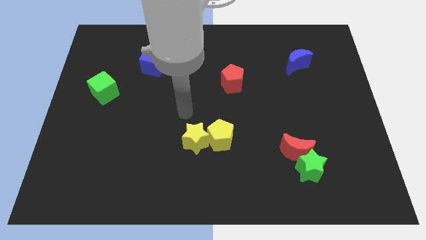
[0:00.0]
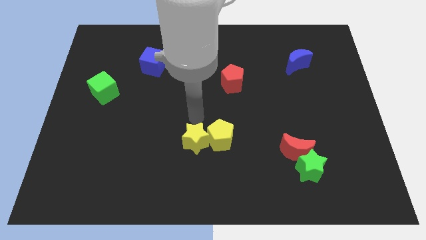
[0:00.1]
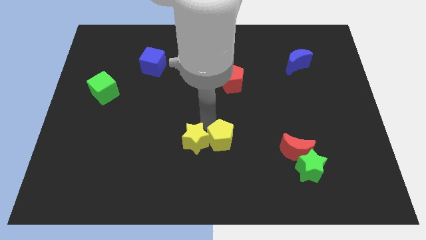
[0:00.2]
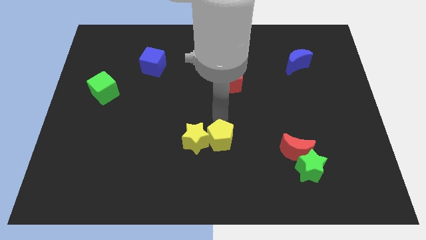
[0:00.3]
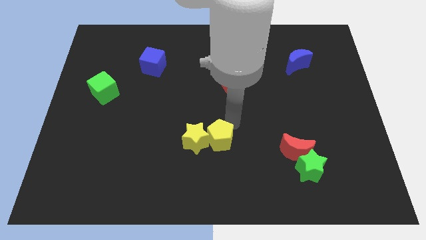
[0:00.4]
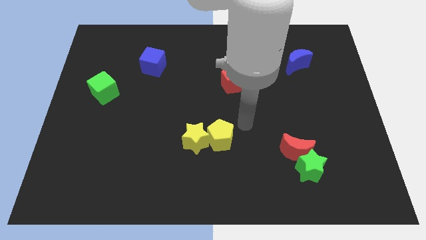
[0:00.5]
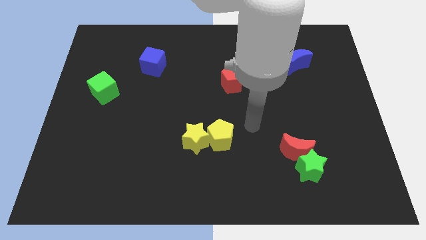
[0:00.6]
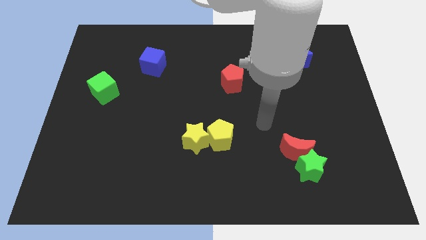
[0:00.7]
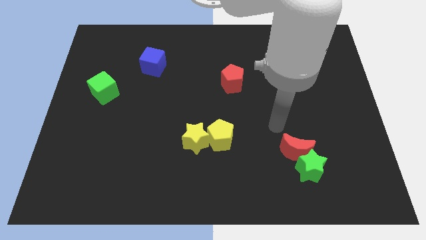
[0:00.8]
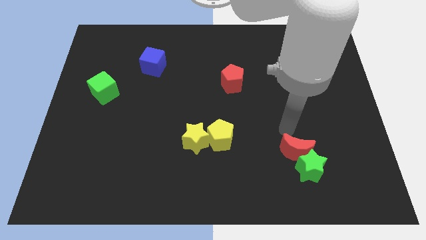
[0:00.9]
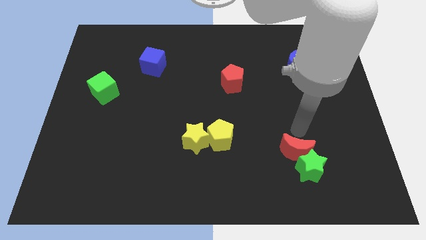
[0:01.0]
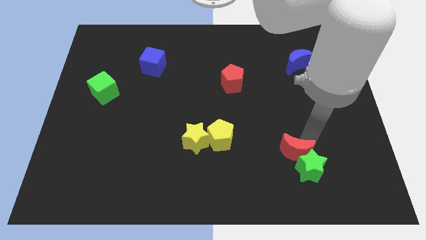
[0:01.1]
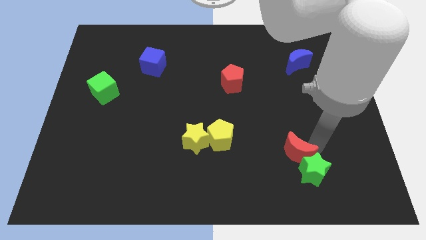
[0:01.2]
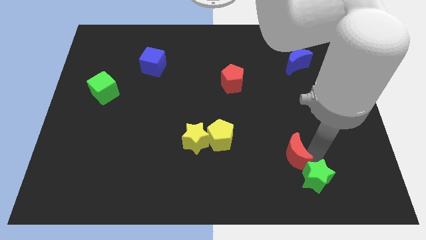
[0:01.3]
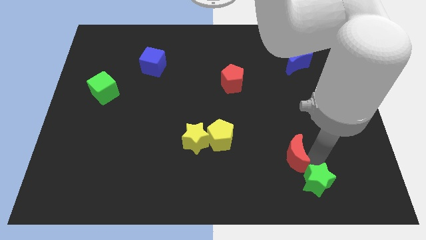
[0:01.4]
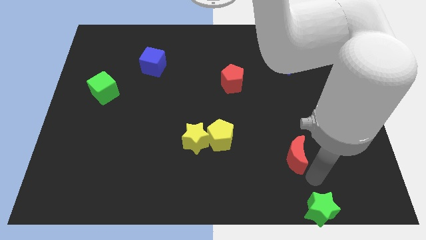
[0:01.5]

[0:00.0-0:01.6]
pull the red moon apart from the green star

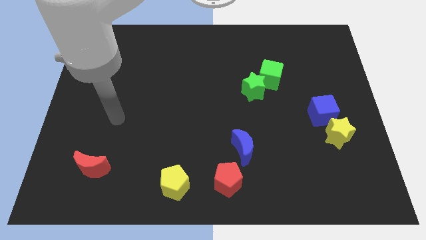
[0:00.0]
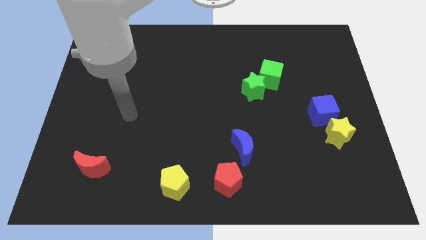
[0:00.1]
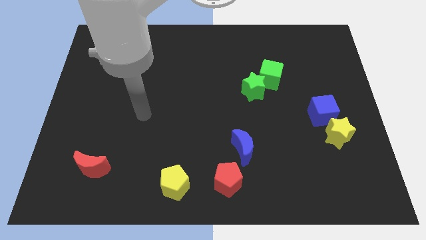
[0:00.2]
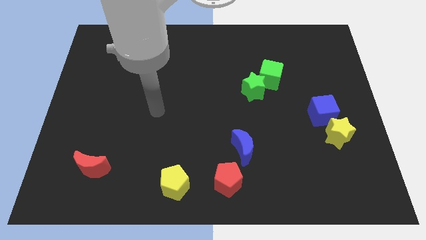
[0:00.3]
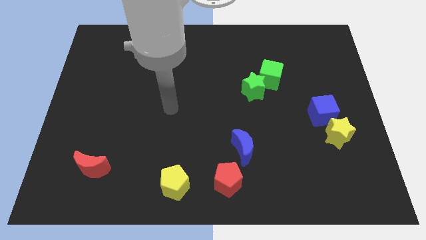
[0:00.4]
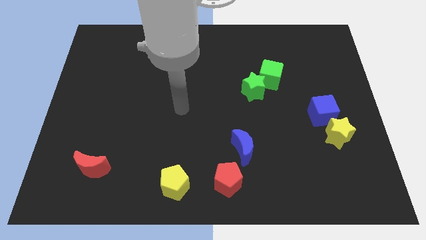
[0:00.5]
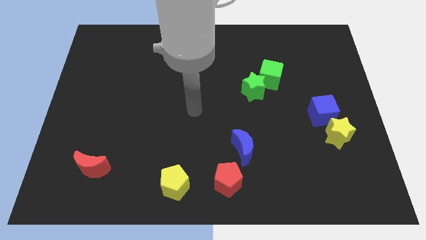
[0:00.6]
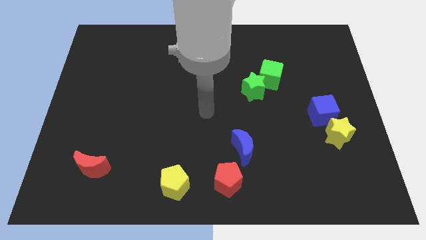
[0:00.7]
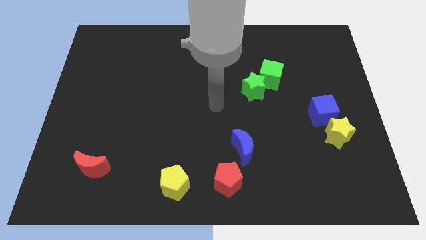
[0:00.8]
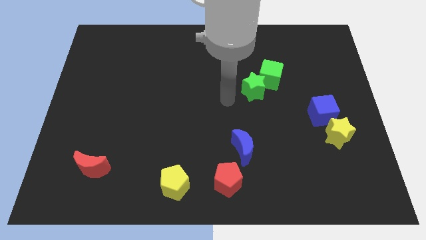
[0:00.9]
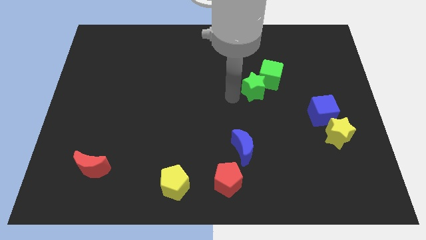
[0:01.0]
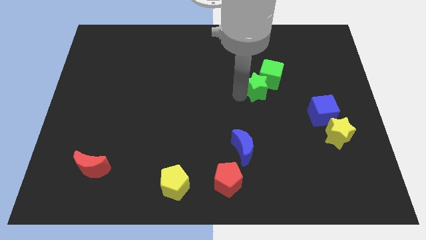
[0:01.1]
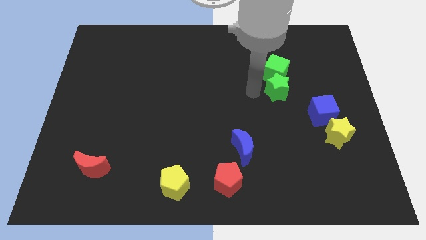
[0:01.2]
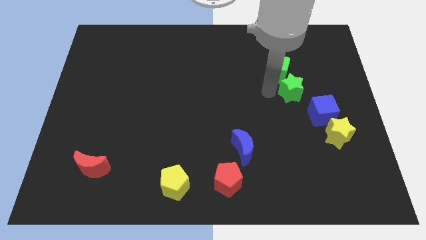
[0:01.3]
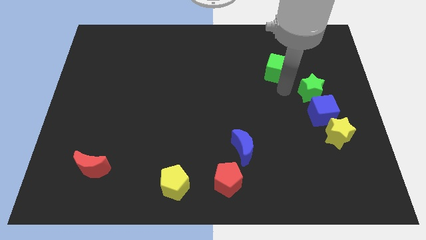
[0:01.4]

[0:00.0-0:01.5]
pull the green cube apart from the green star

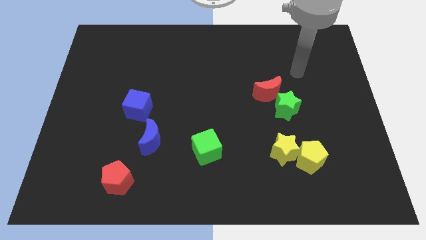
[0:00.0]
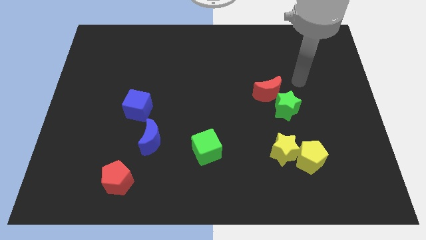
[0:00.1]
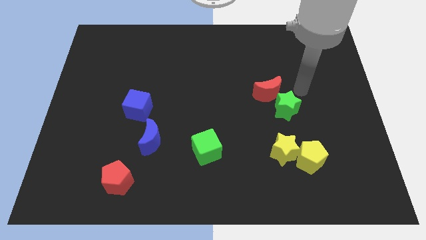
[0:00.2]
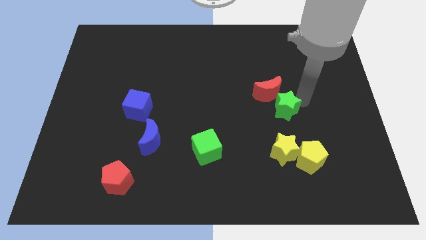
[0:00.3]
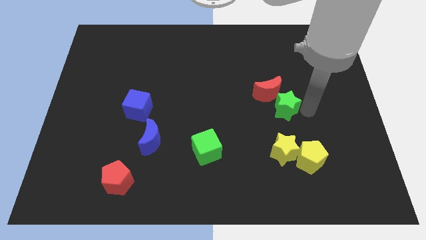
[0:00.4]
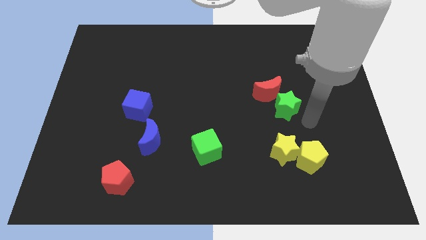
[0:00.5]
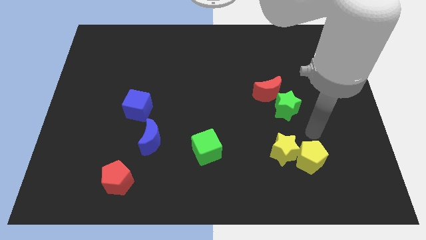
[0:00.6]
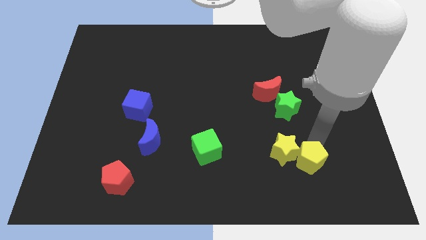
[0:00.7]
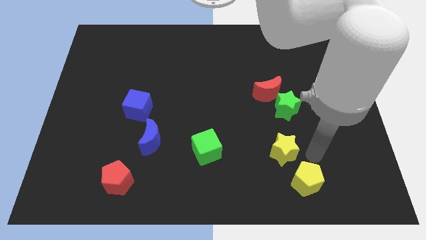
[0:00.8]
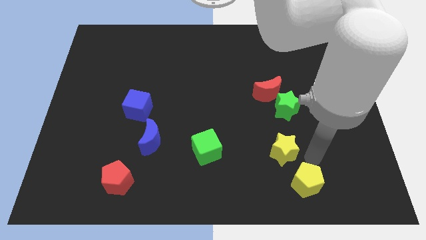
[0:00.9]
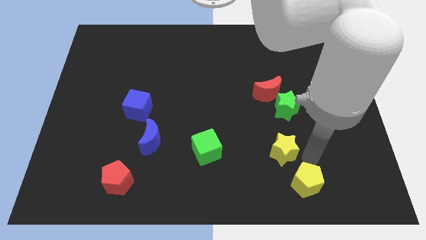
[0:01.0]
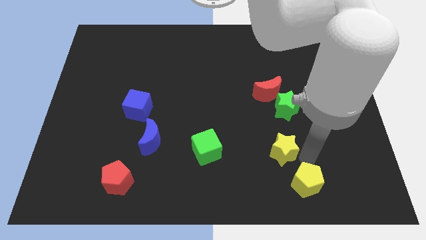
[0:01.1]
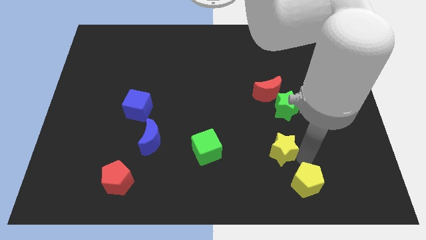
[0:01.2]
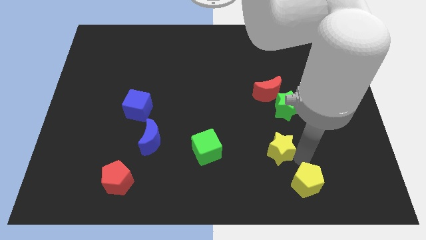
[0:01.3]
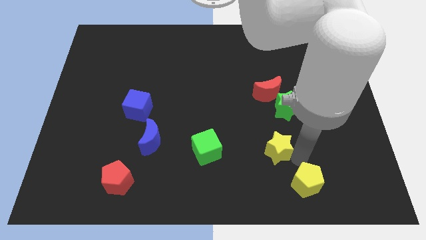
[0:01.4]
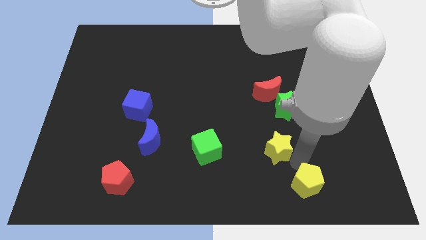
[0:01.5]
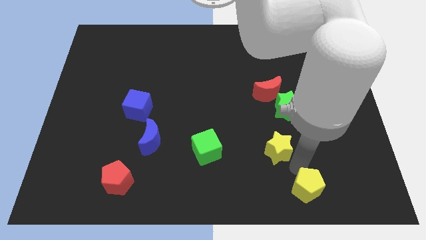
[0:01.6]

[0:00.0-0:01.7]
move the yellow star away from the yellow pentagon

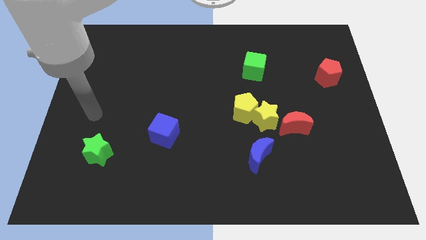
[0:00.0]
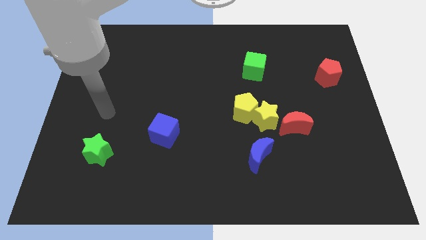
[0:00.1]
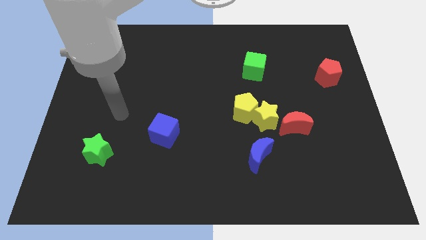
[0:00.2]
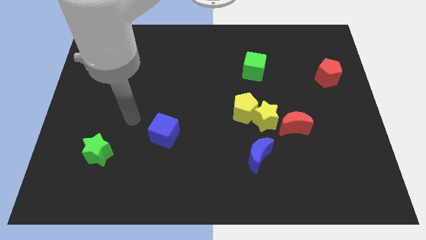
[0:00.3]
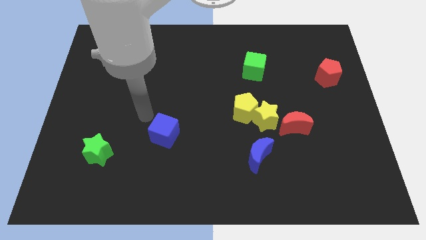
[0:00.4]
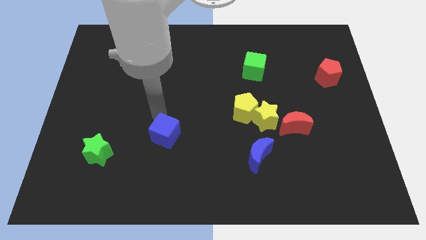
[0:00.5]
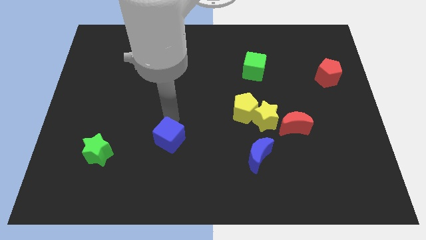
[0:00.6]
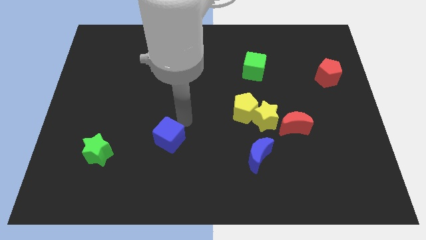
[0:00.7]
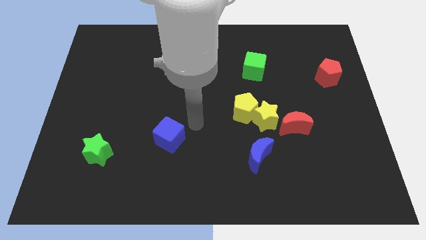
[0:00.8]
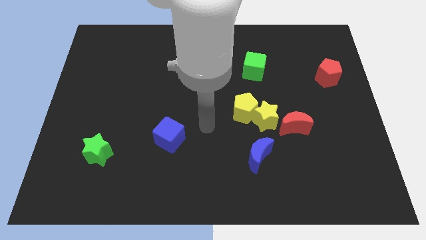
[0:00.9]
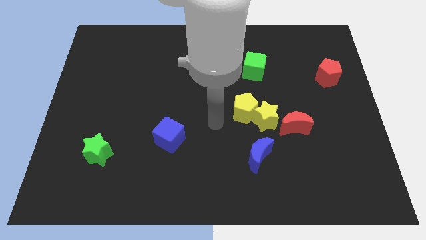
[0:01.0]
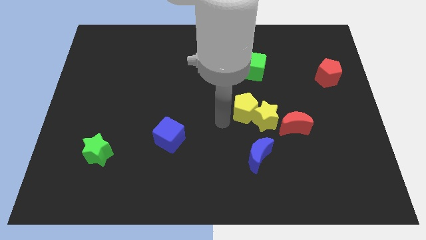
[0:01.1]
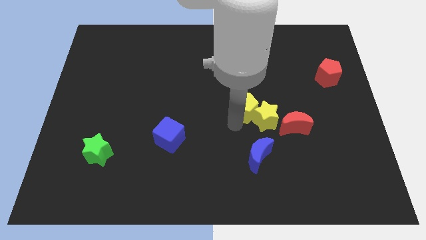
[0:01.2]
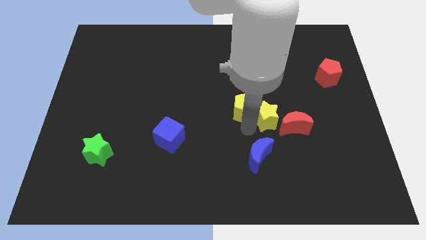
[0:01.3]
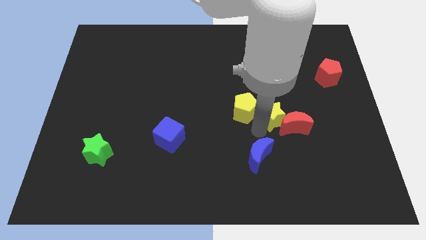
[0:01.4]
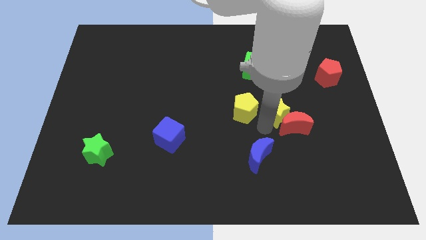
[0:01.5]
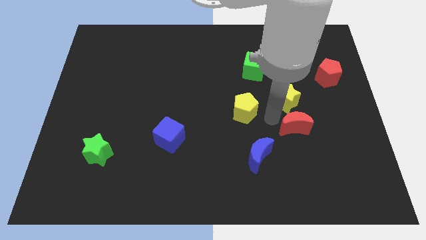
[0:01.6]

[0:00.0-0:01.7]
move the yellow pentagon away from the yellow star

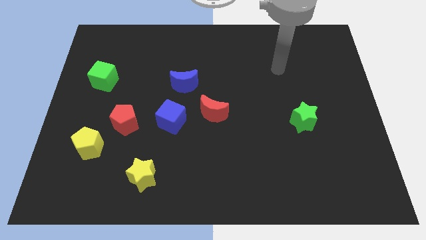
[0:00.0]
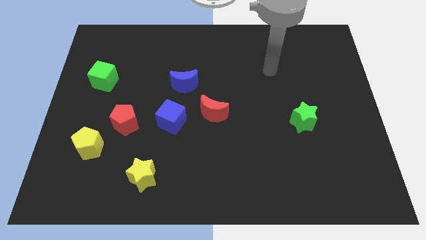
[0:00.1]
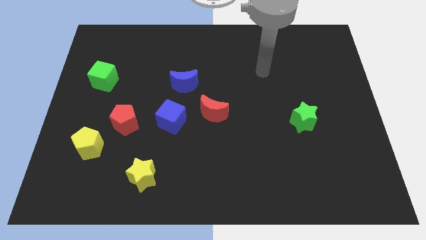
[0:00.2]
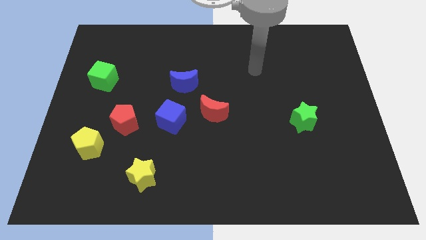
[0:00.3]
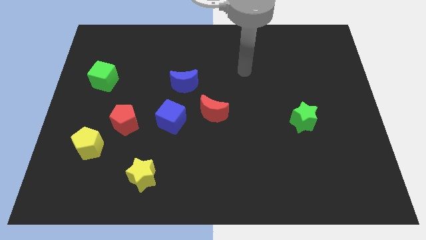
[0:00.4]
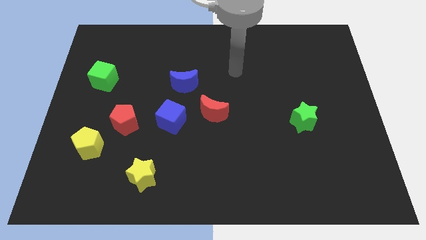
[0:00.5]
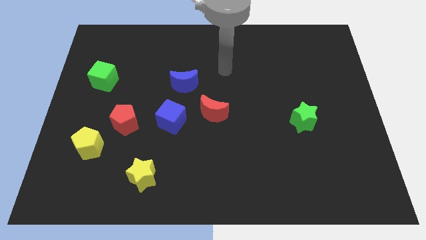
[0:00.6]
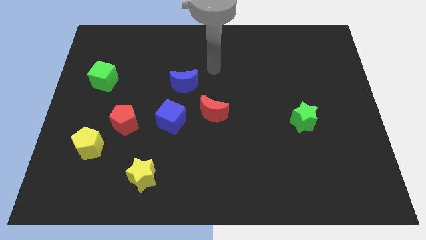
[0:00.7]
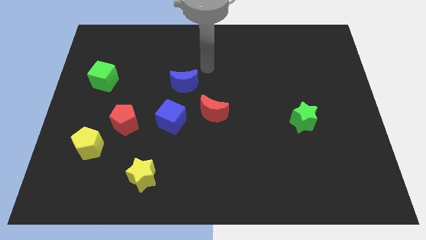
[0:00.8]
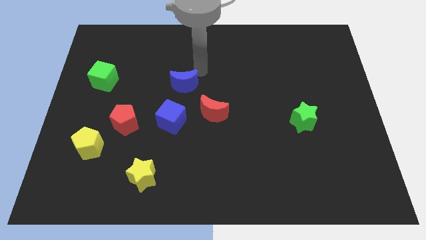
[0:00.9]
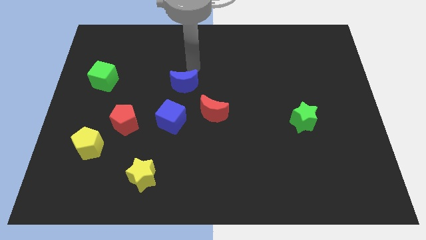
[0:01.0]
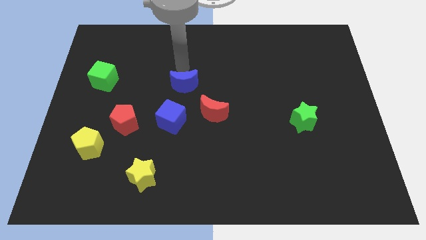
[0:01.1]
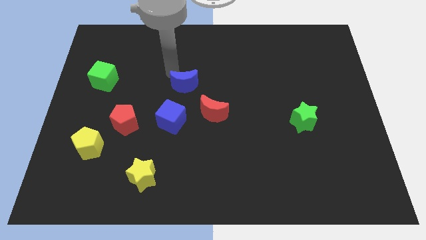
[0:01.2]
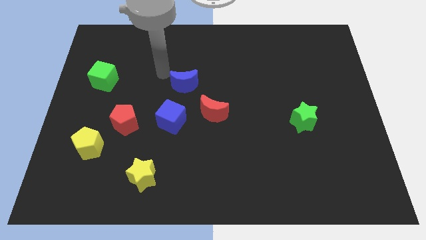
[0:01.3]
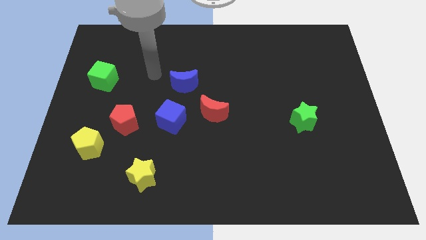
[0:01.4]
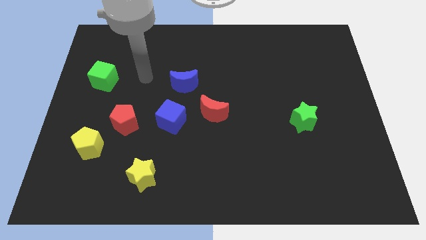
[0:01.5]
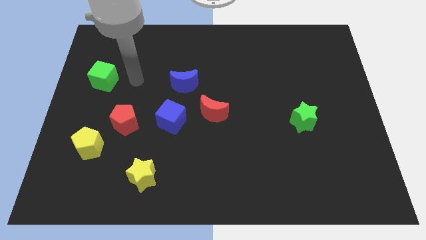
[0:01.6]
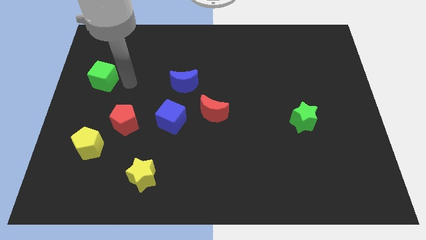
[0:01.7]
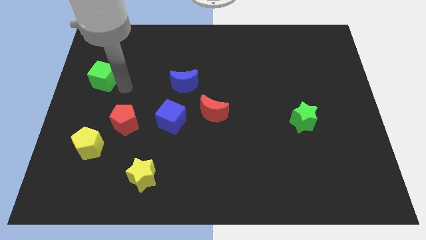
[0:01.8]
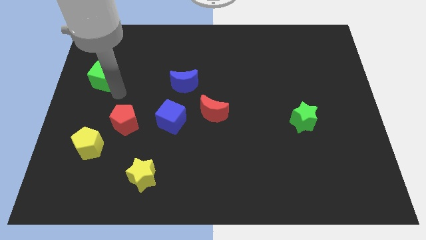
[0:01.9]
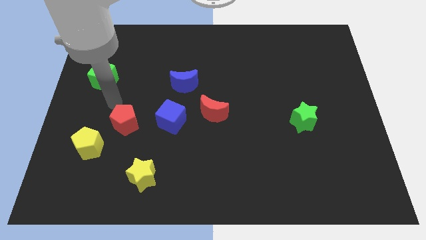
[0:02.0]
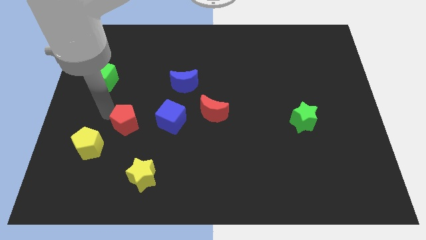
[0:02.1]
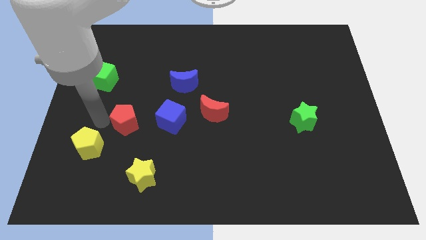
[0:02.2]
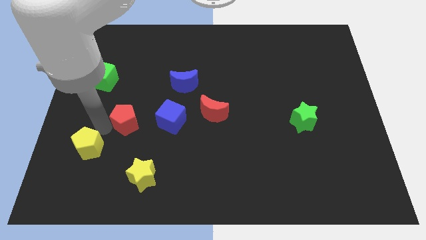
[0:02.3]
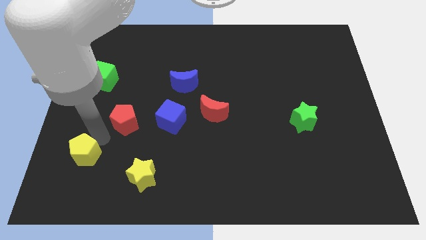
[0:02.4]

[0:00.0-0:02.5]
pull the red pentagon apart from the yellow pentagon

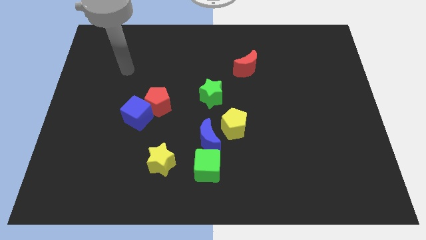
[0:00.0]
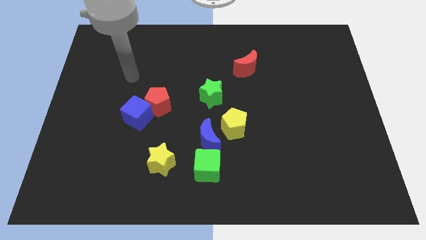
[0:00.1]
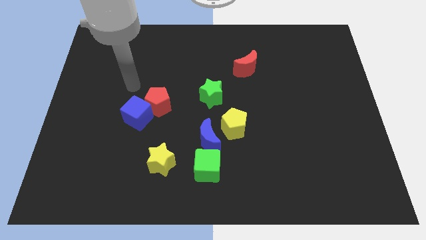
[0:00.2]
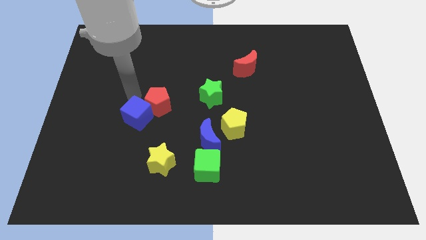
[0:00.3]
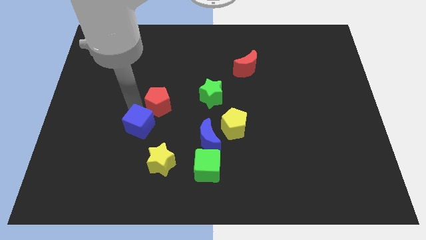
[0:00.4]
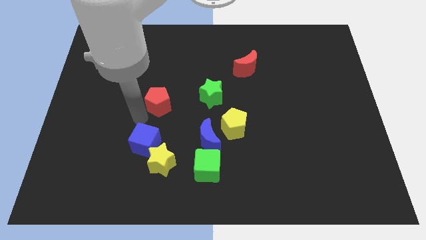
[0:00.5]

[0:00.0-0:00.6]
separate the red pentagon from the blue cube
